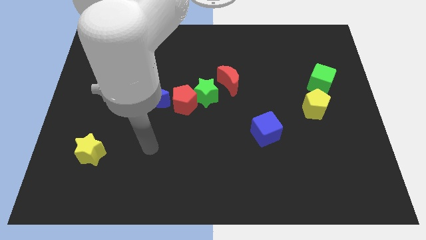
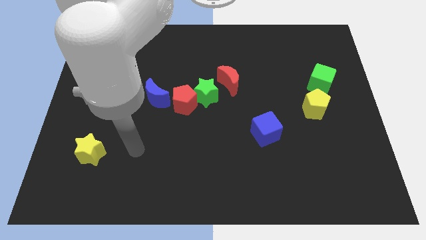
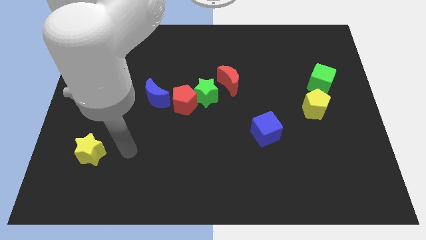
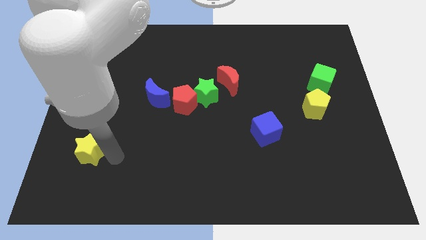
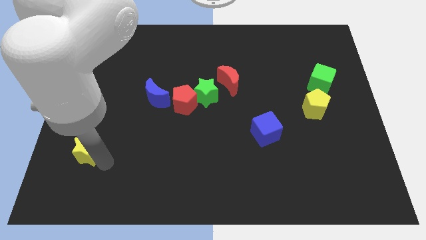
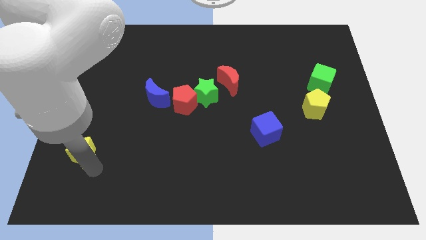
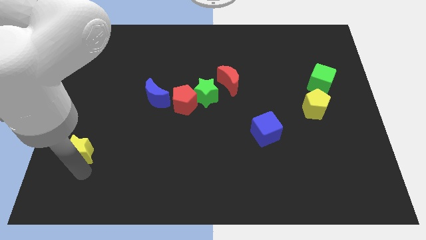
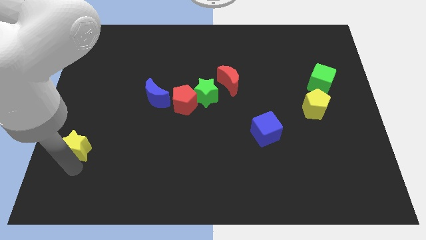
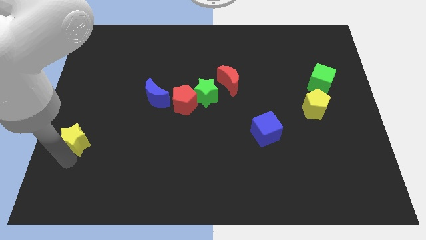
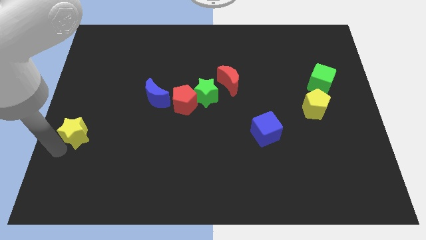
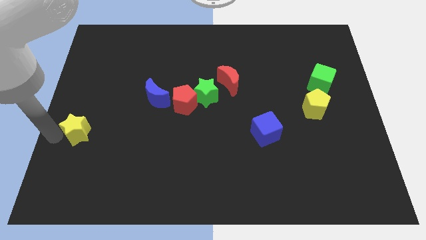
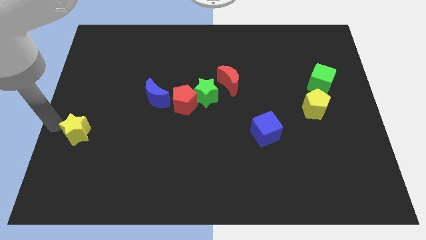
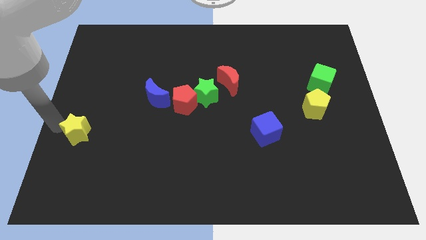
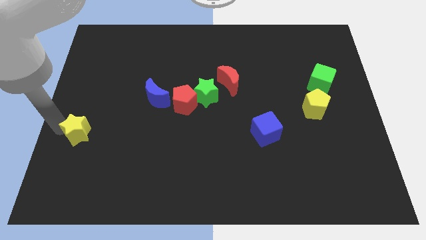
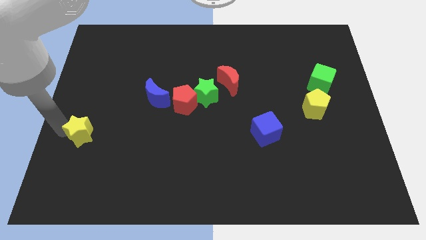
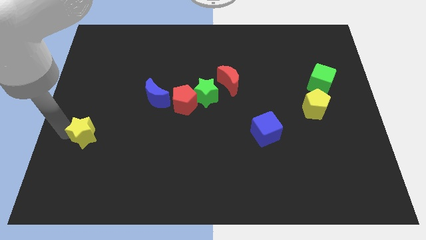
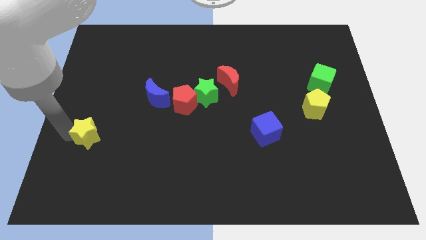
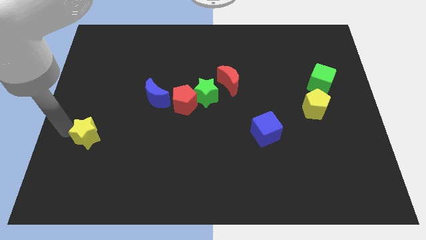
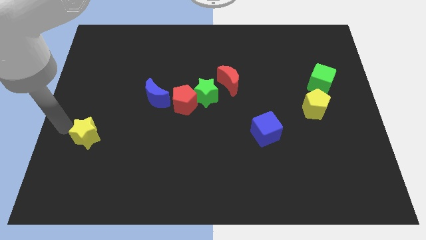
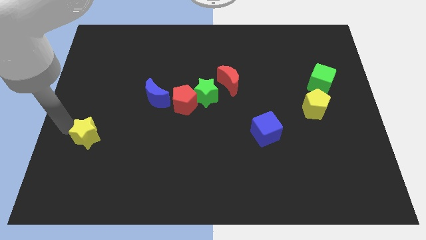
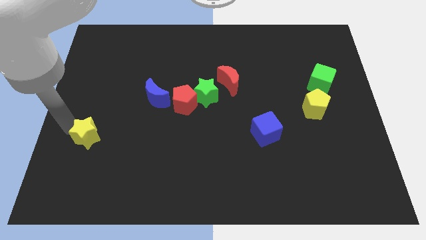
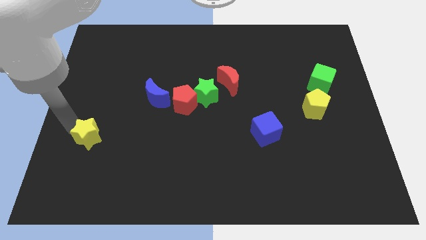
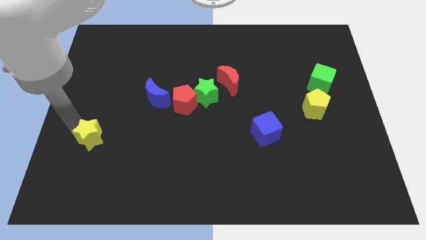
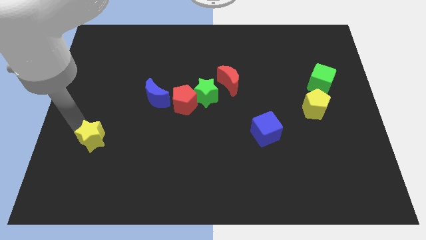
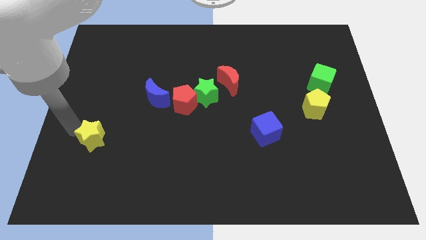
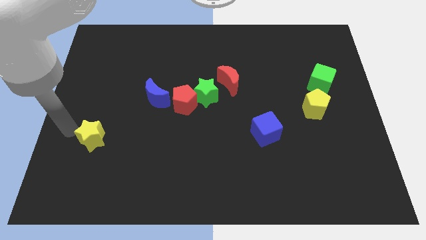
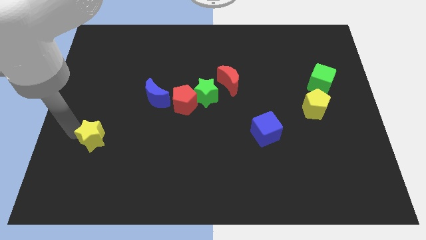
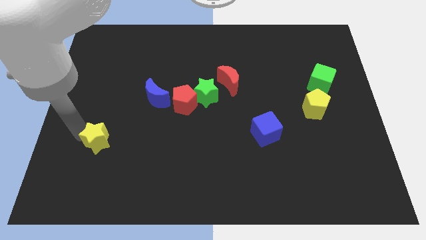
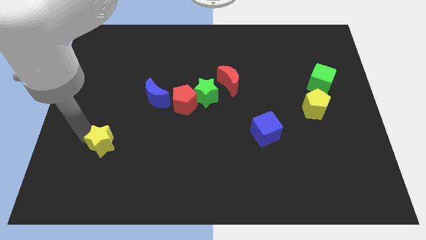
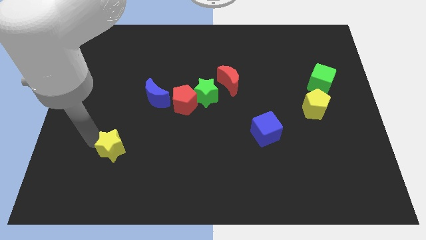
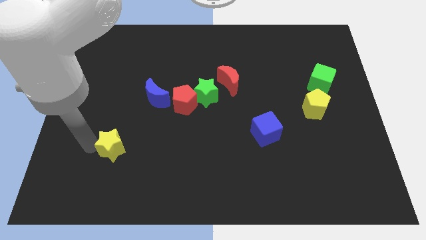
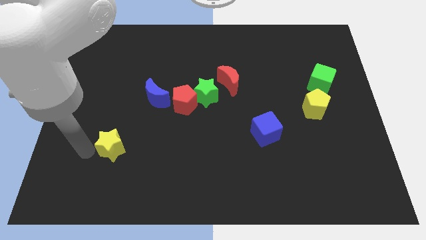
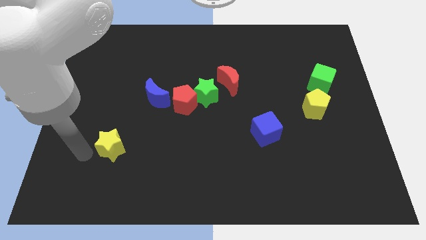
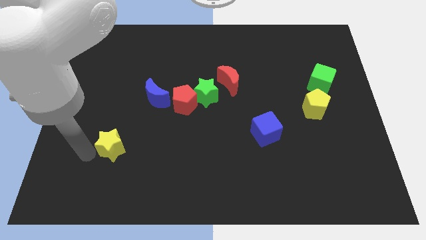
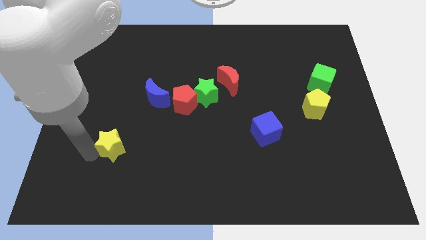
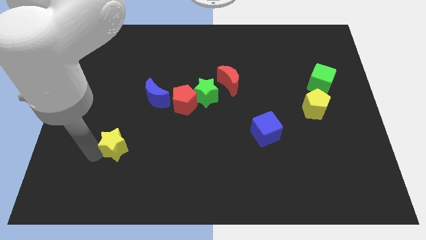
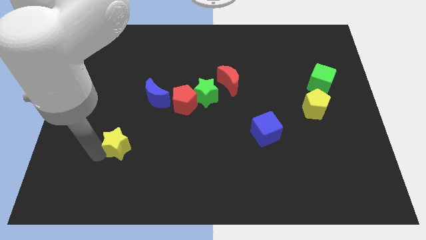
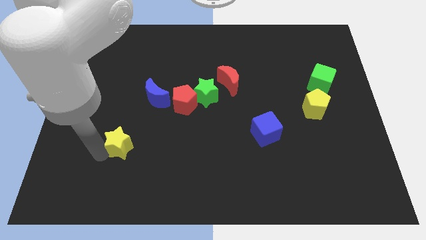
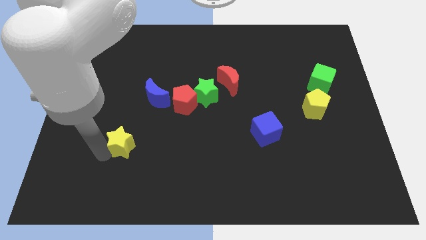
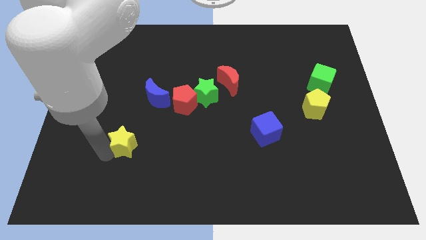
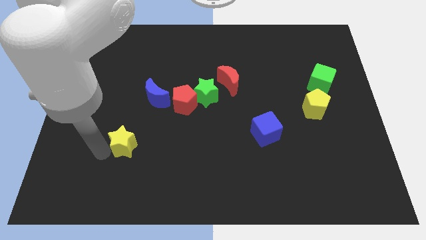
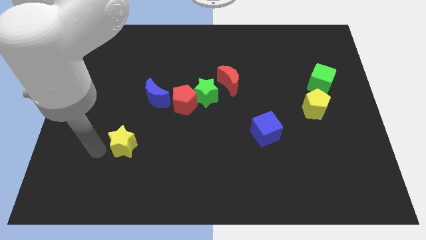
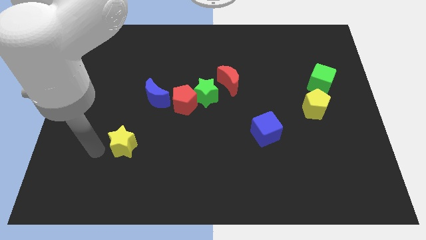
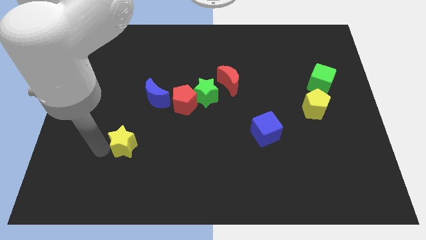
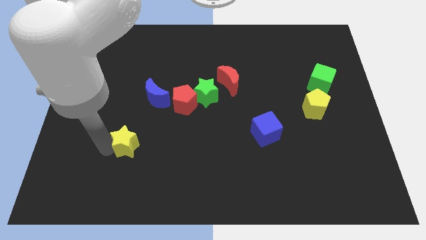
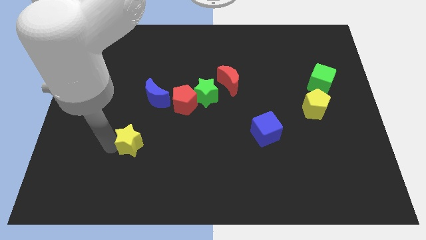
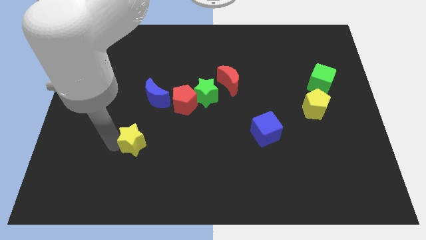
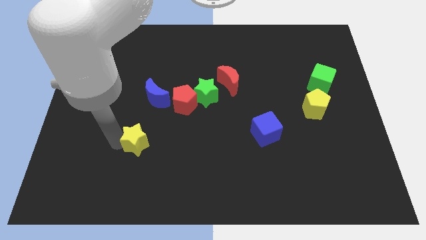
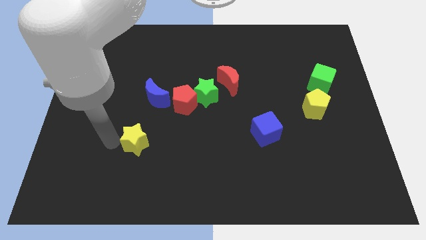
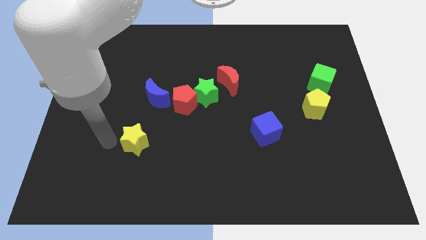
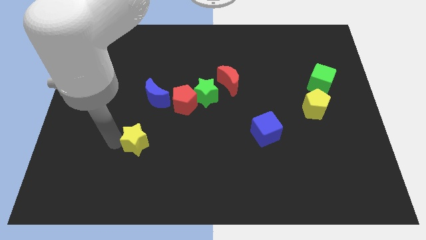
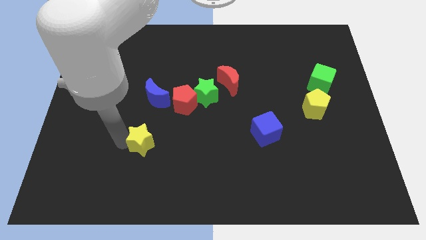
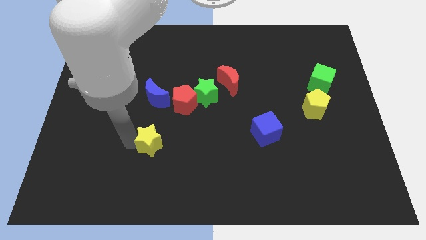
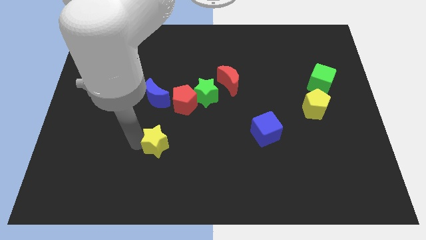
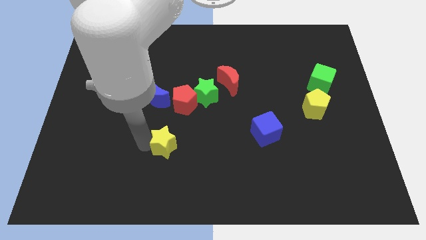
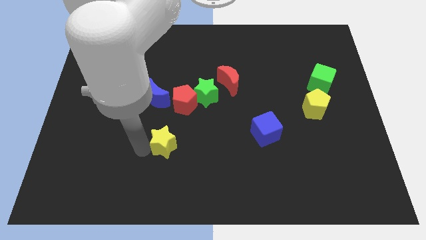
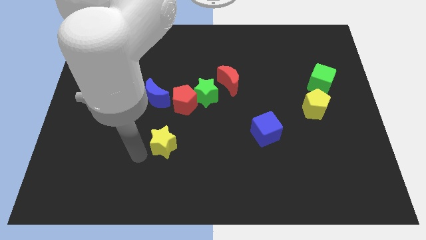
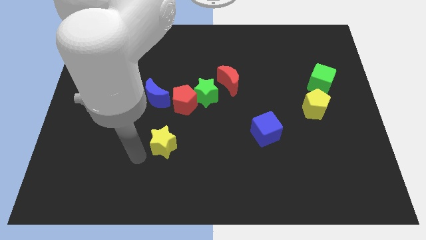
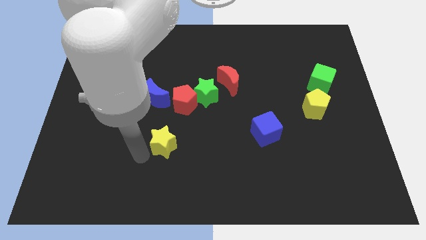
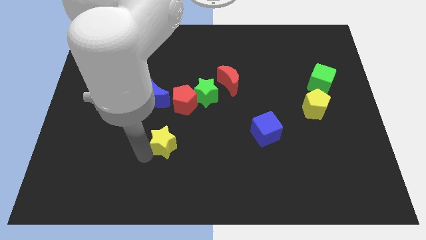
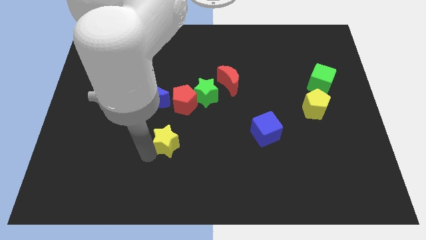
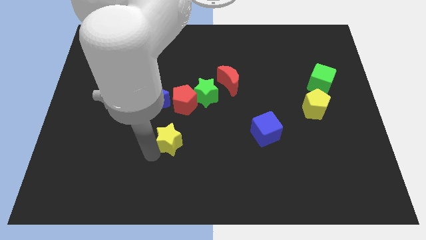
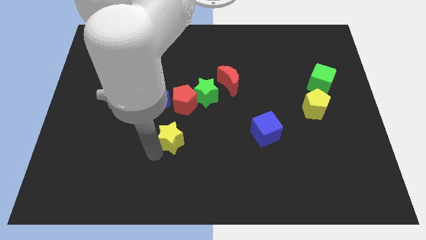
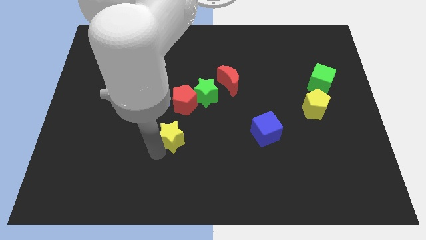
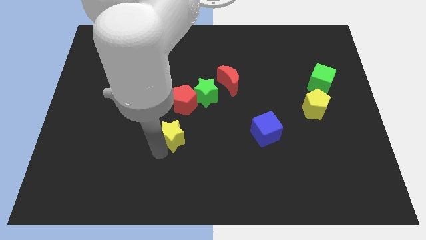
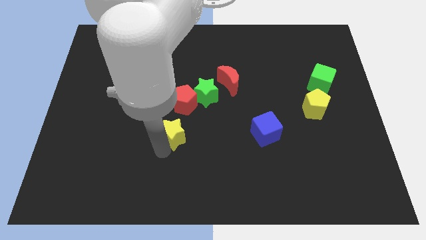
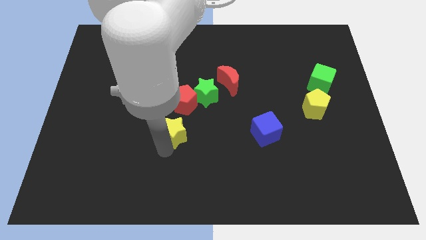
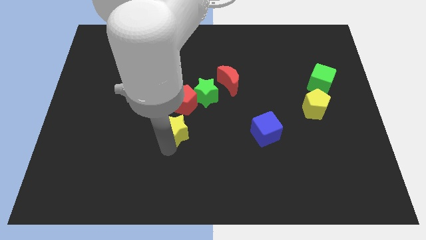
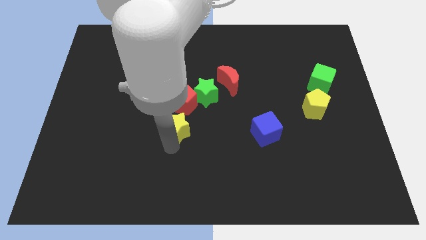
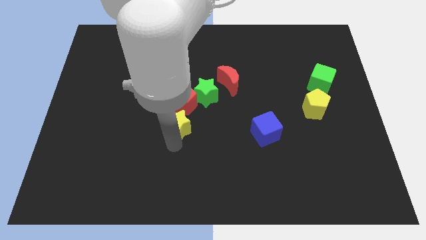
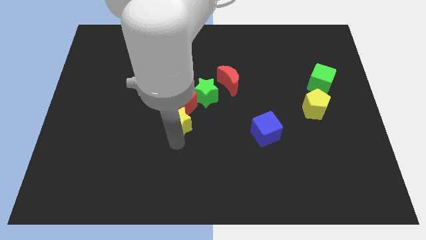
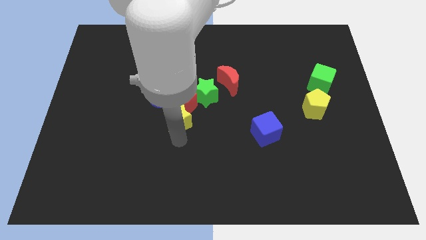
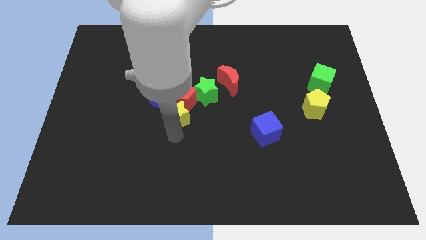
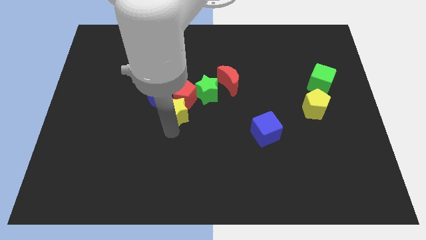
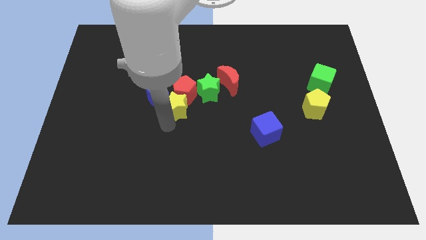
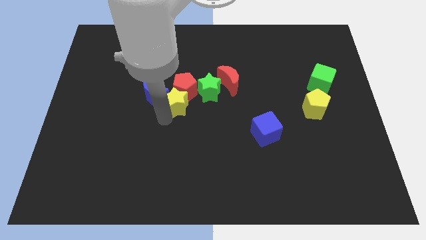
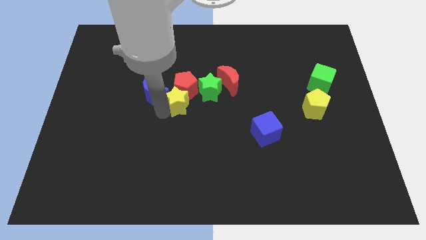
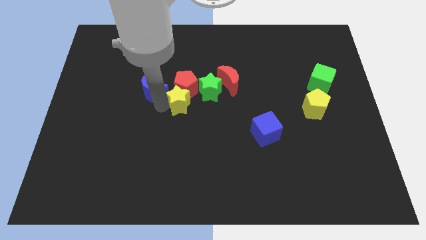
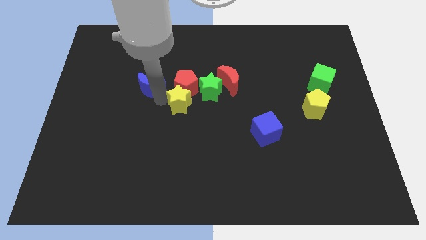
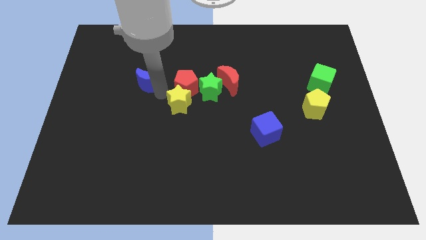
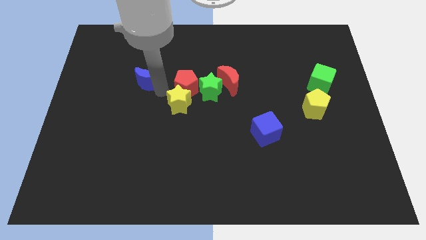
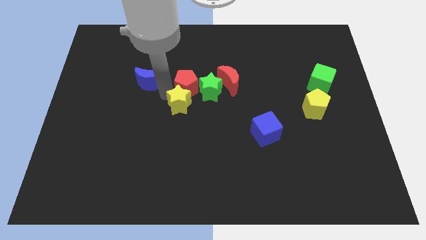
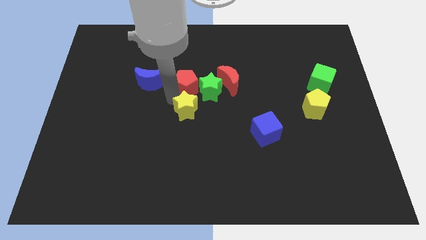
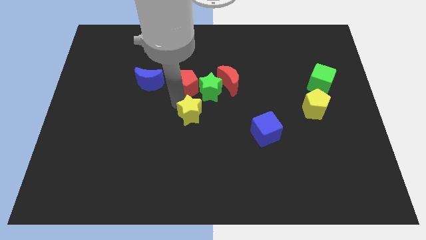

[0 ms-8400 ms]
put the yellow star to the bottom of the green star

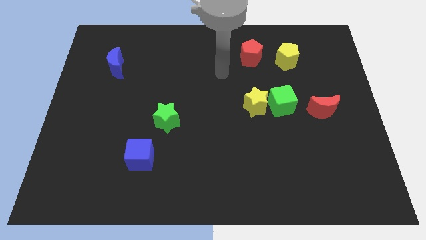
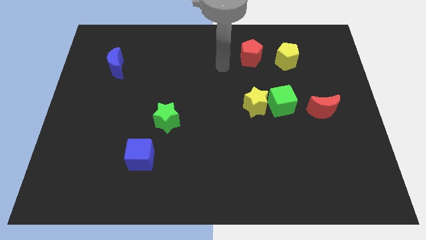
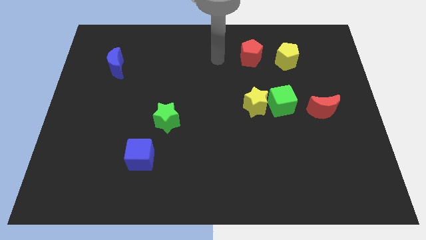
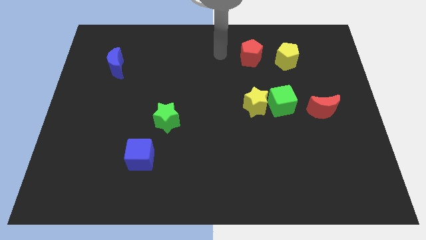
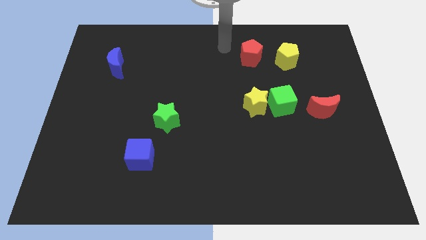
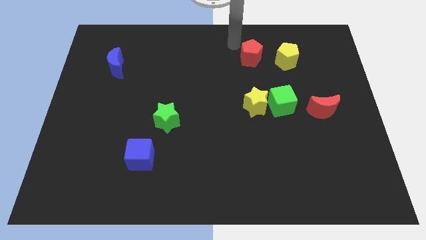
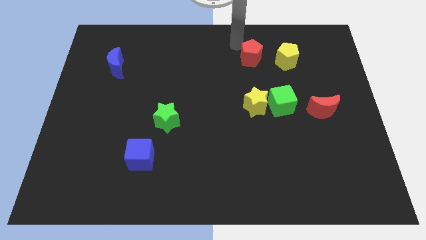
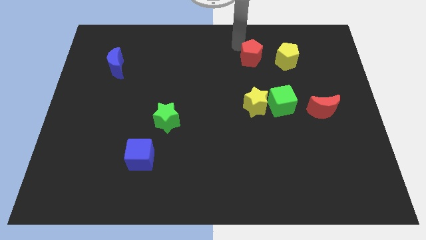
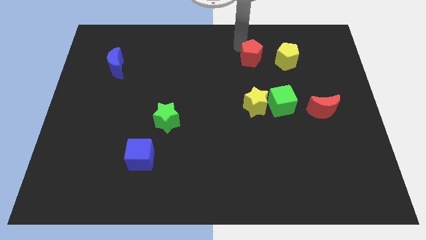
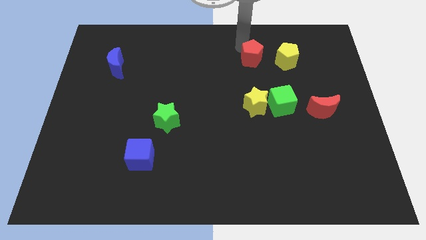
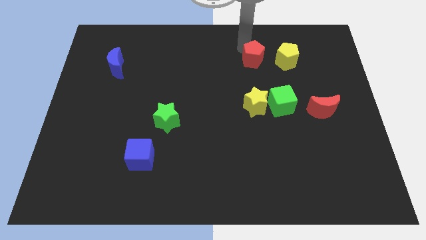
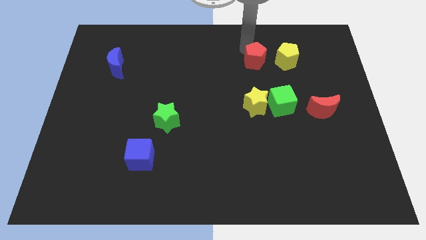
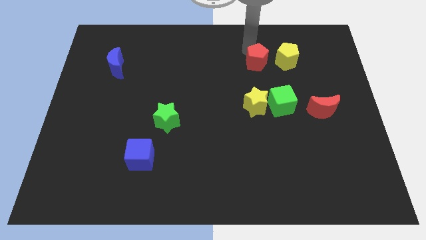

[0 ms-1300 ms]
put the red pentagon diagonally down and to the left of the yellow pentagon
